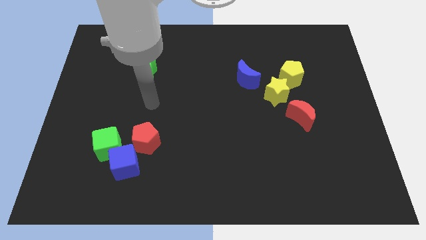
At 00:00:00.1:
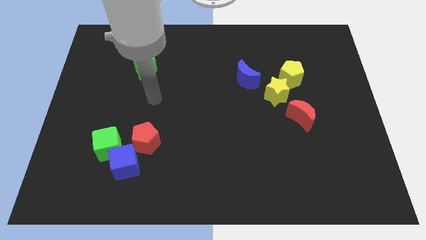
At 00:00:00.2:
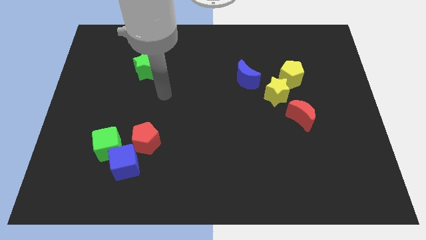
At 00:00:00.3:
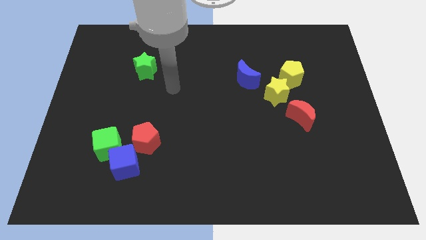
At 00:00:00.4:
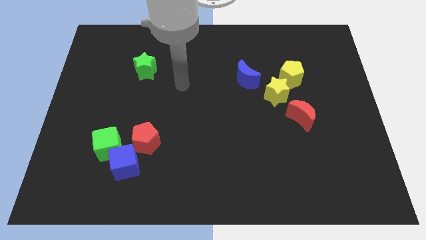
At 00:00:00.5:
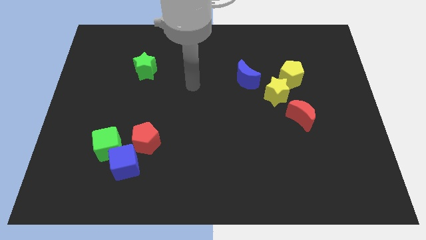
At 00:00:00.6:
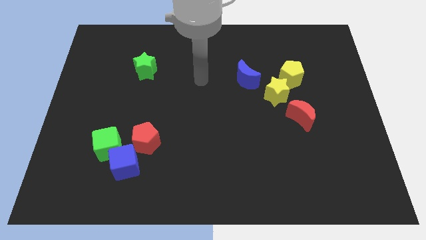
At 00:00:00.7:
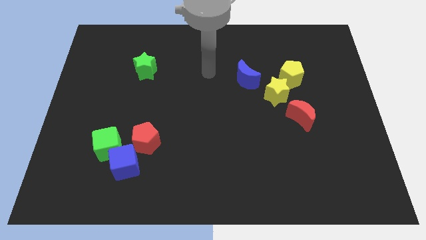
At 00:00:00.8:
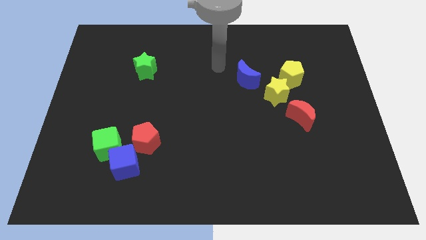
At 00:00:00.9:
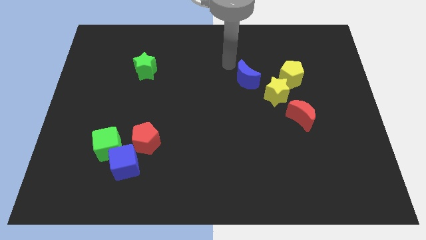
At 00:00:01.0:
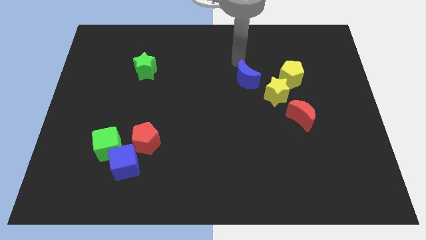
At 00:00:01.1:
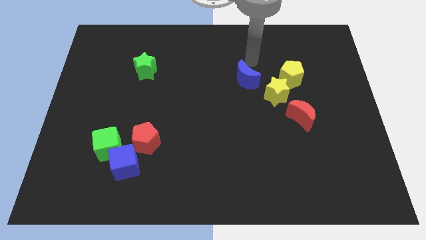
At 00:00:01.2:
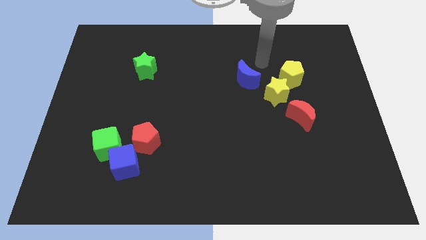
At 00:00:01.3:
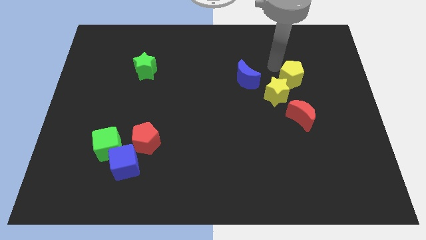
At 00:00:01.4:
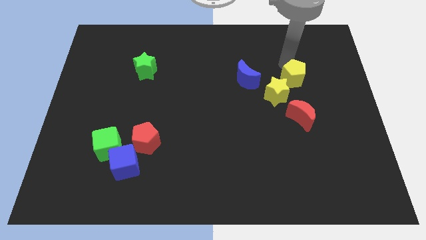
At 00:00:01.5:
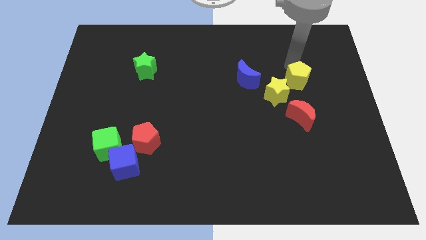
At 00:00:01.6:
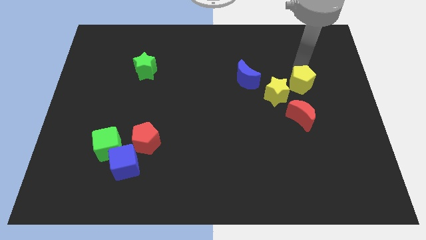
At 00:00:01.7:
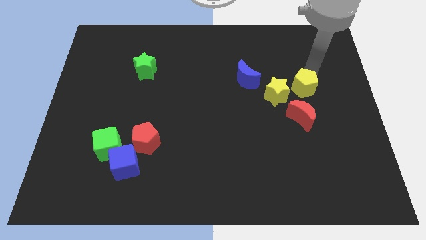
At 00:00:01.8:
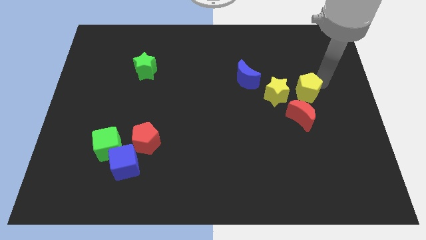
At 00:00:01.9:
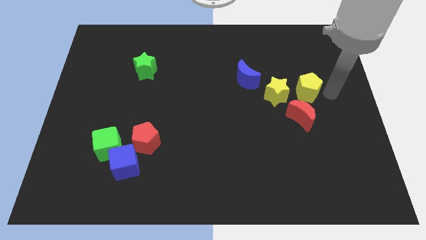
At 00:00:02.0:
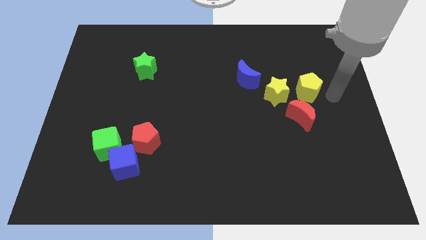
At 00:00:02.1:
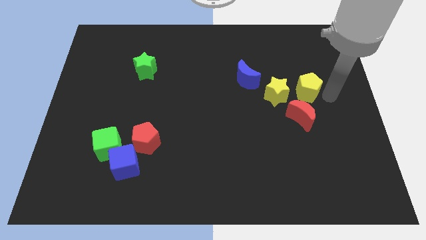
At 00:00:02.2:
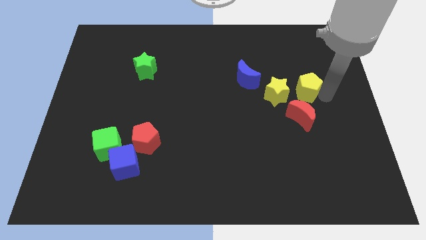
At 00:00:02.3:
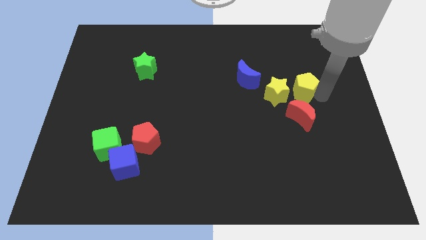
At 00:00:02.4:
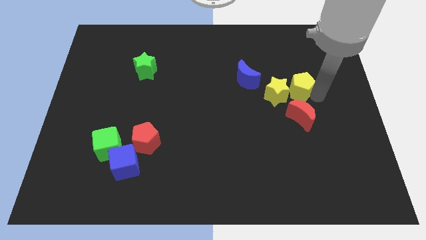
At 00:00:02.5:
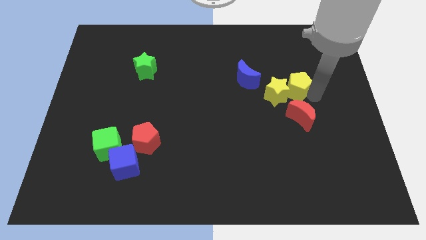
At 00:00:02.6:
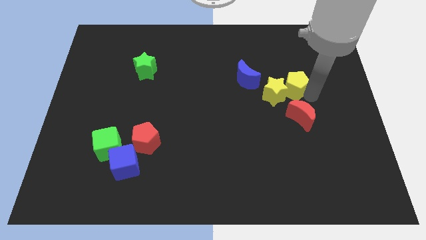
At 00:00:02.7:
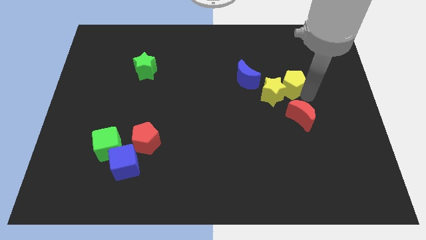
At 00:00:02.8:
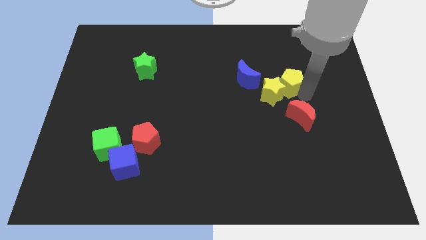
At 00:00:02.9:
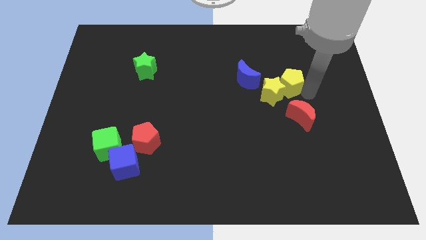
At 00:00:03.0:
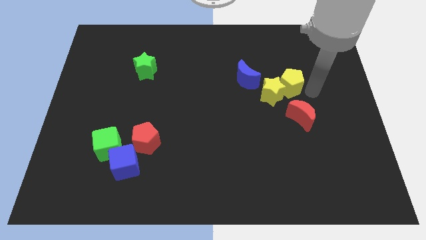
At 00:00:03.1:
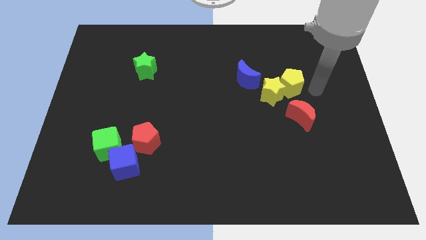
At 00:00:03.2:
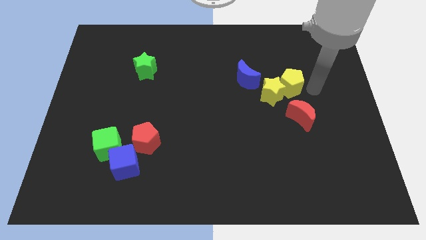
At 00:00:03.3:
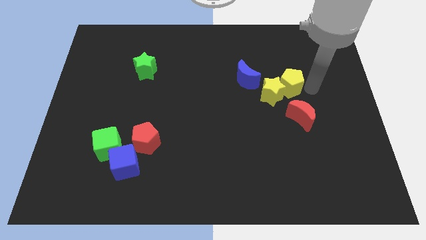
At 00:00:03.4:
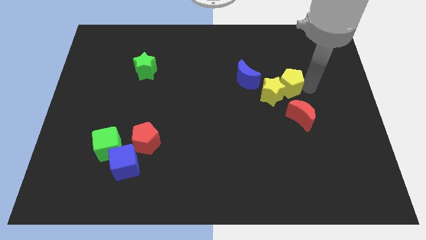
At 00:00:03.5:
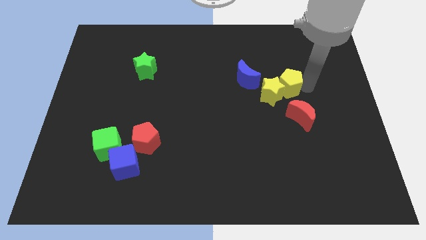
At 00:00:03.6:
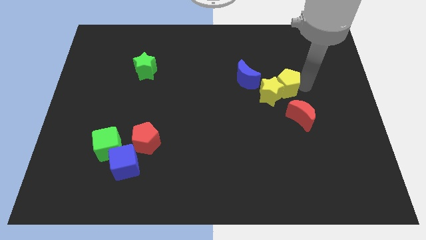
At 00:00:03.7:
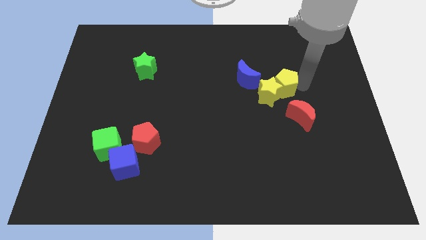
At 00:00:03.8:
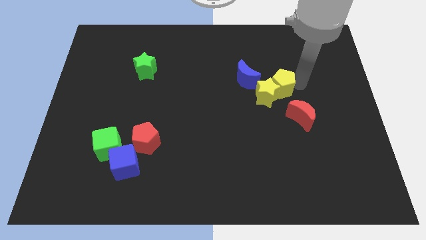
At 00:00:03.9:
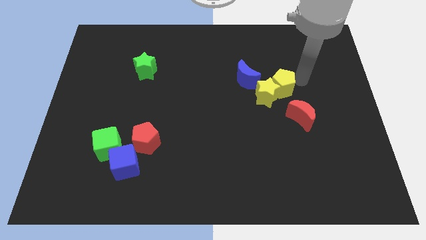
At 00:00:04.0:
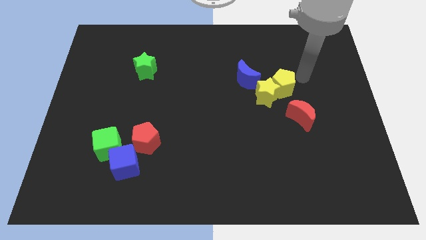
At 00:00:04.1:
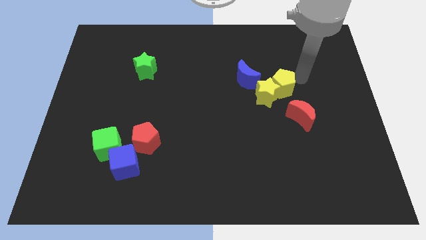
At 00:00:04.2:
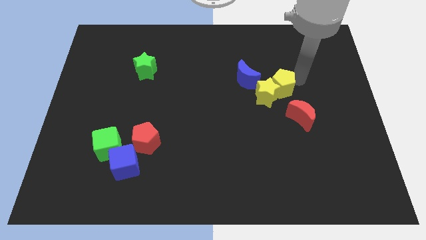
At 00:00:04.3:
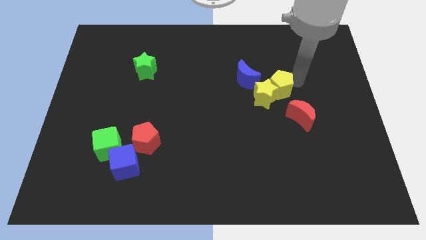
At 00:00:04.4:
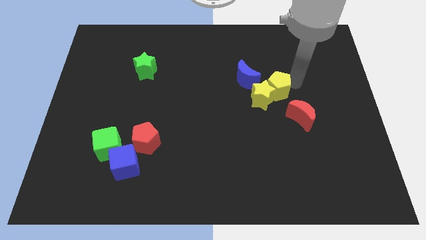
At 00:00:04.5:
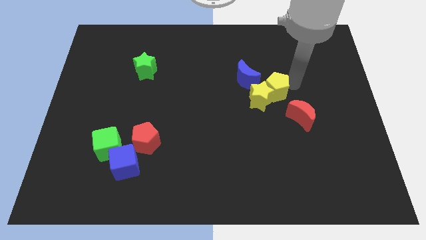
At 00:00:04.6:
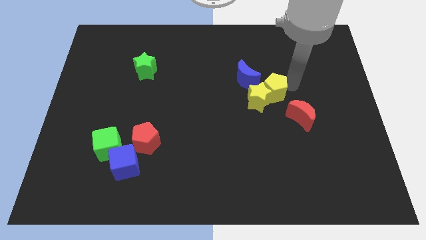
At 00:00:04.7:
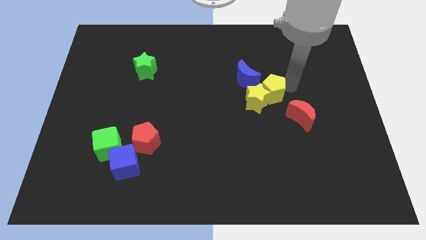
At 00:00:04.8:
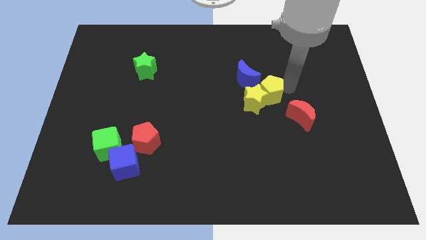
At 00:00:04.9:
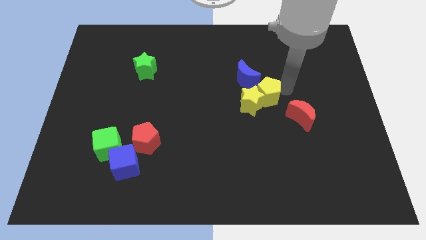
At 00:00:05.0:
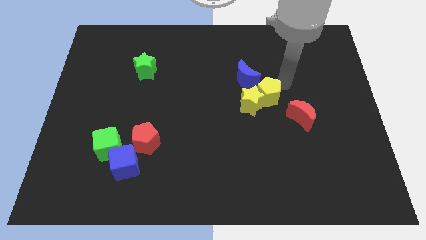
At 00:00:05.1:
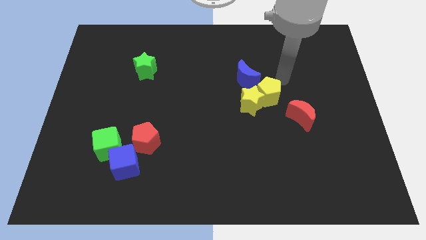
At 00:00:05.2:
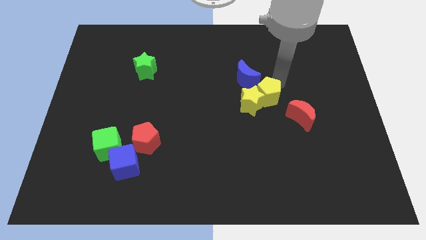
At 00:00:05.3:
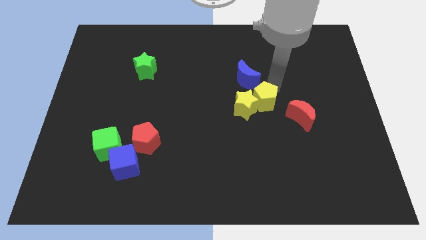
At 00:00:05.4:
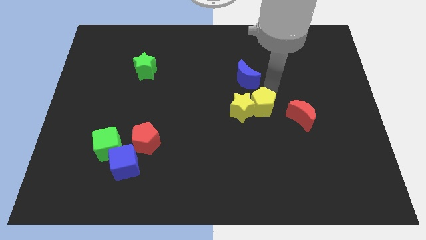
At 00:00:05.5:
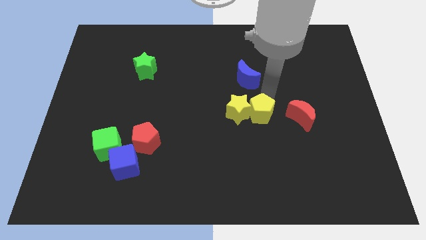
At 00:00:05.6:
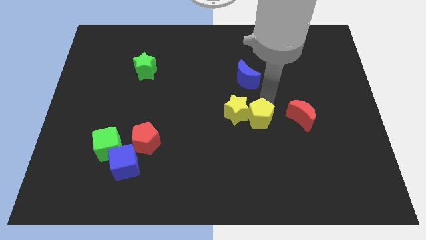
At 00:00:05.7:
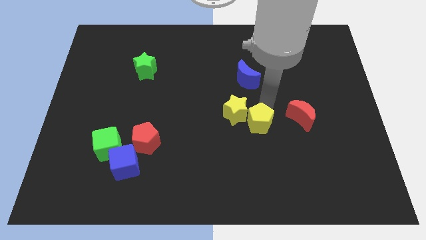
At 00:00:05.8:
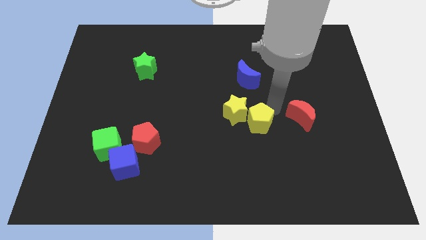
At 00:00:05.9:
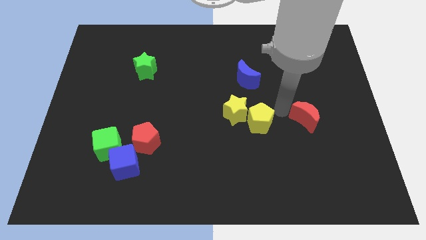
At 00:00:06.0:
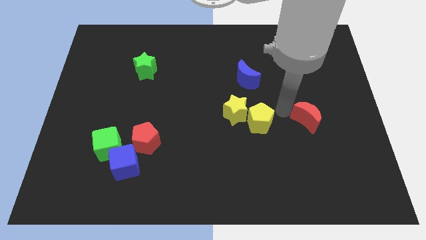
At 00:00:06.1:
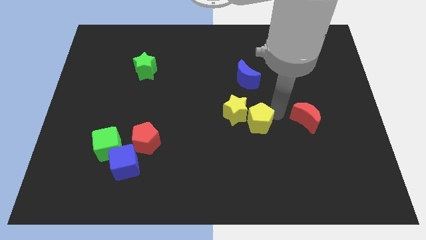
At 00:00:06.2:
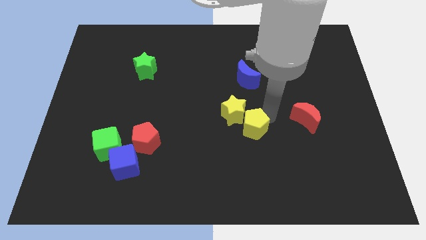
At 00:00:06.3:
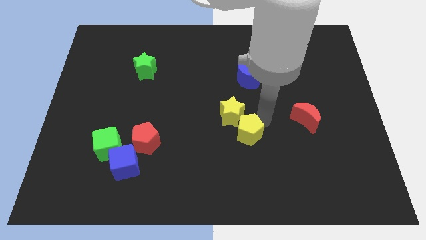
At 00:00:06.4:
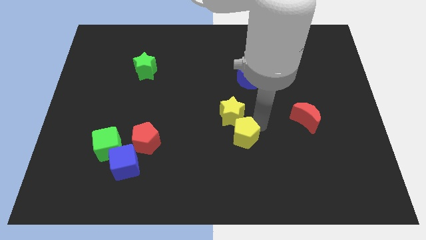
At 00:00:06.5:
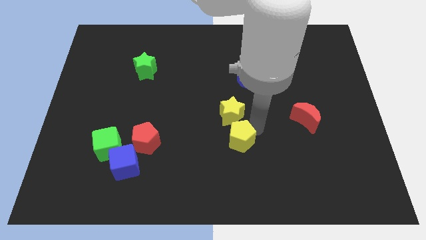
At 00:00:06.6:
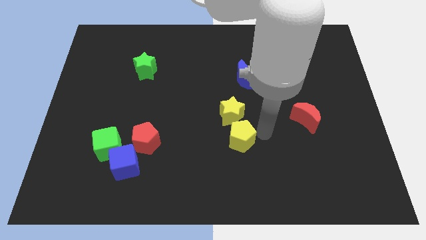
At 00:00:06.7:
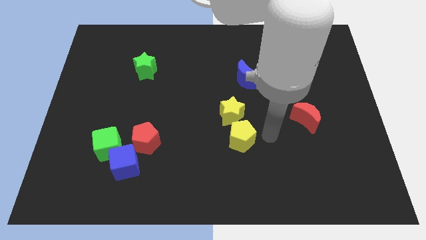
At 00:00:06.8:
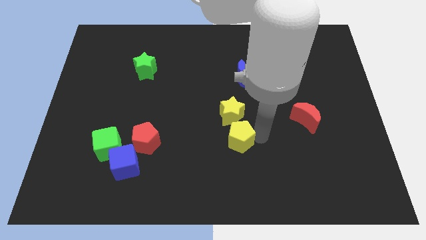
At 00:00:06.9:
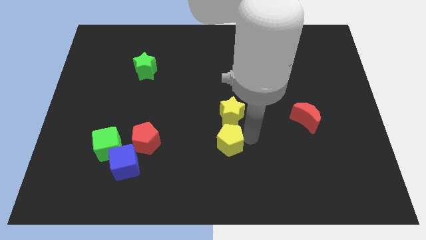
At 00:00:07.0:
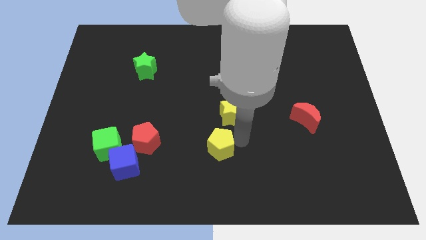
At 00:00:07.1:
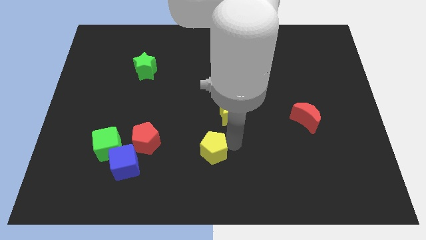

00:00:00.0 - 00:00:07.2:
put the yellow pentagon to the right of the red pentagon

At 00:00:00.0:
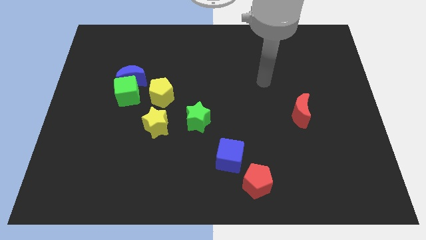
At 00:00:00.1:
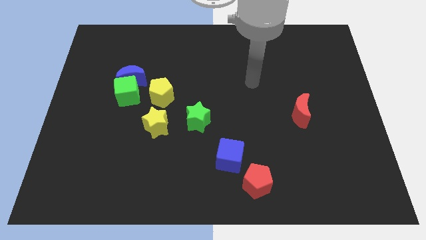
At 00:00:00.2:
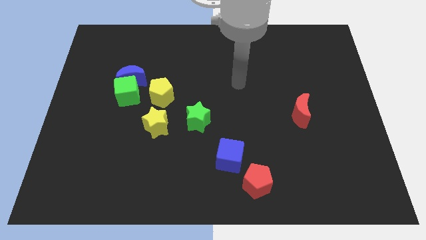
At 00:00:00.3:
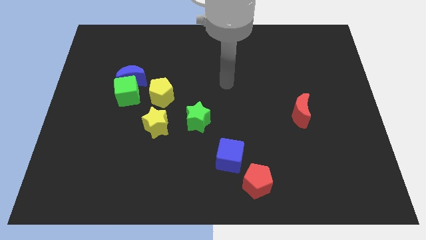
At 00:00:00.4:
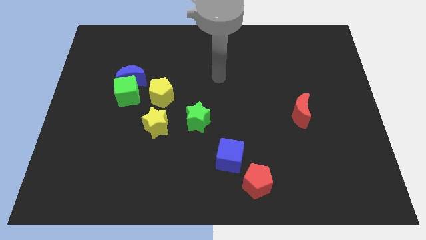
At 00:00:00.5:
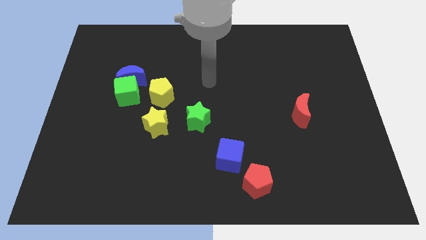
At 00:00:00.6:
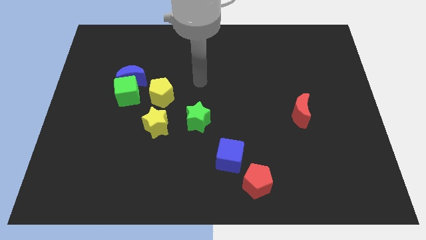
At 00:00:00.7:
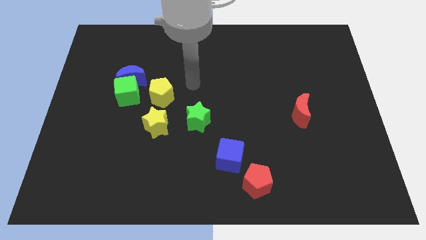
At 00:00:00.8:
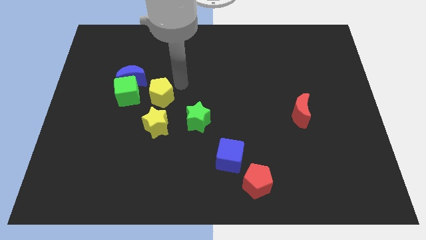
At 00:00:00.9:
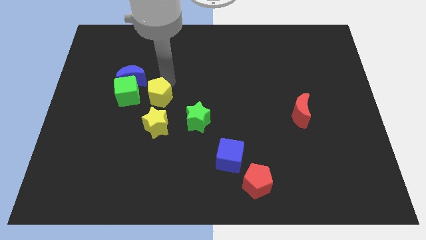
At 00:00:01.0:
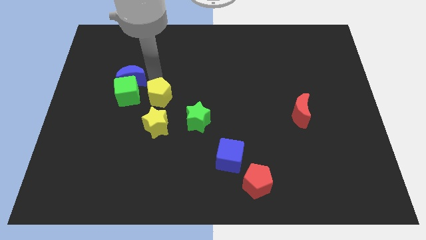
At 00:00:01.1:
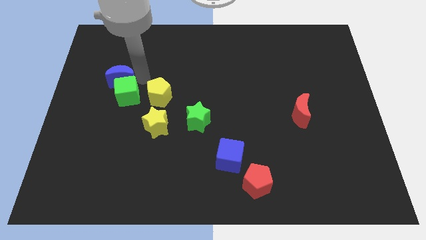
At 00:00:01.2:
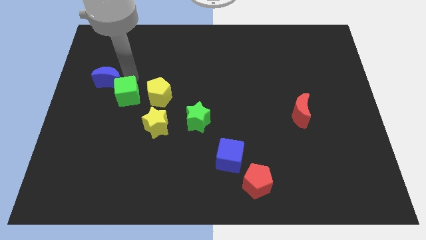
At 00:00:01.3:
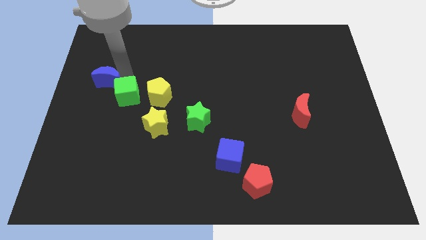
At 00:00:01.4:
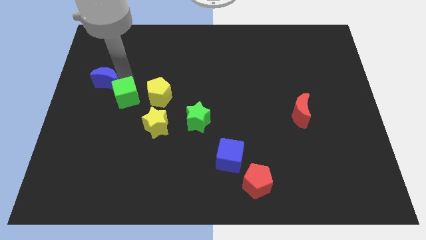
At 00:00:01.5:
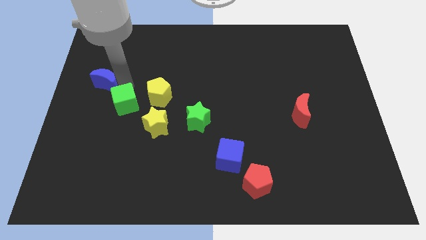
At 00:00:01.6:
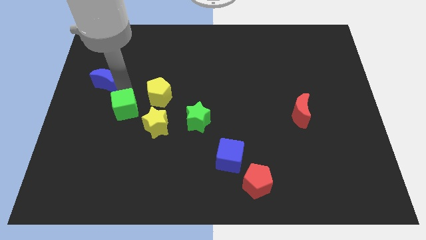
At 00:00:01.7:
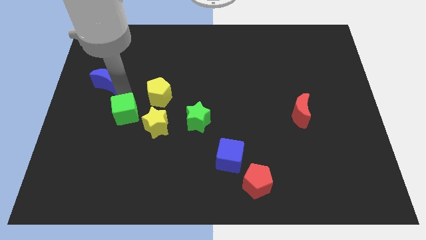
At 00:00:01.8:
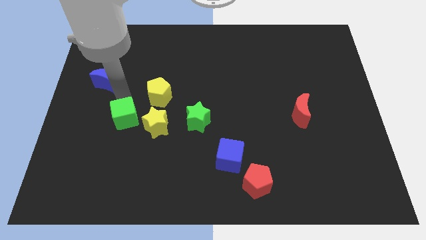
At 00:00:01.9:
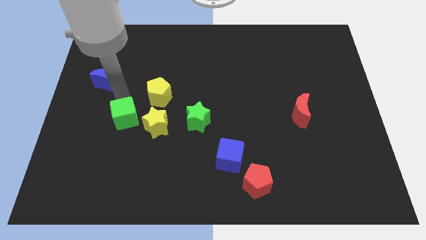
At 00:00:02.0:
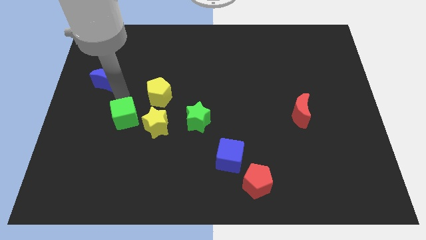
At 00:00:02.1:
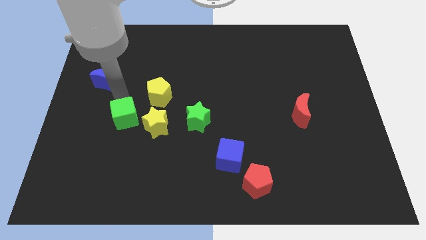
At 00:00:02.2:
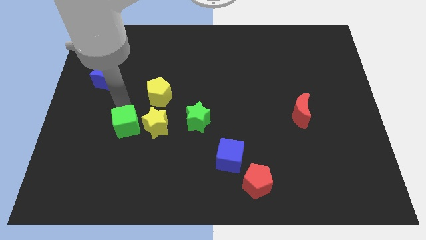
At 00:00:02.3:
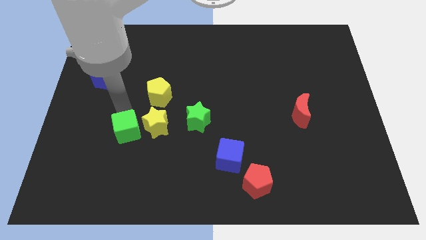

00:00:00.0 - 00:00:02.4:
push the green cube to the bottom left side of the yellow star
